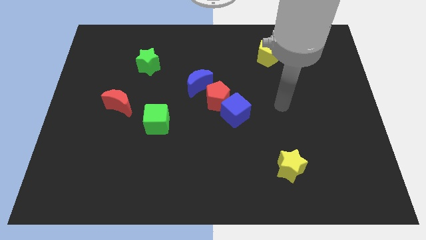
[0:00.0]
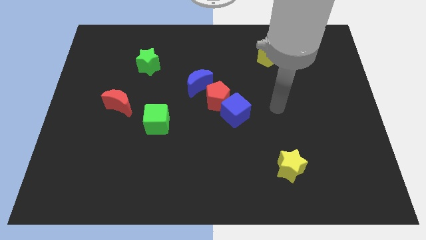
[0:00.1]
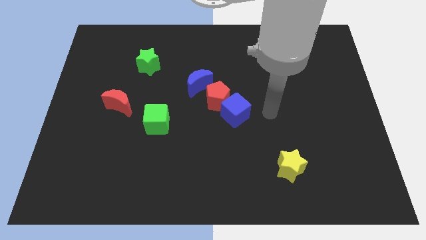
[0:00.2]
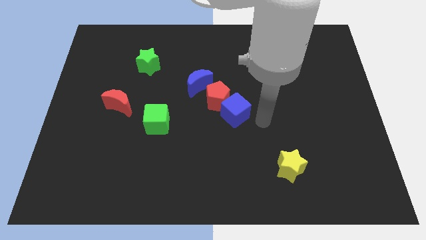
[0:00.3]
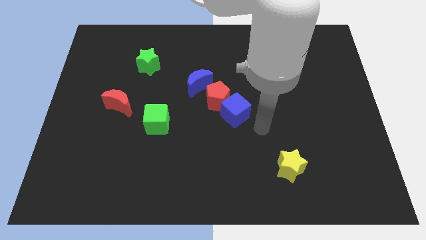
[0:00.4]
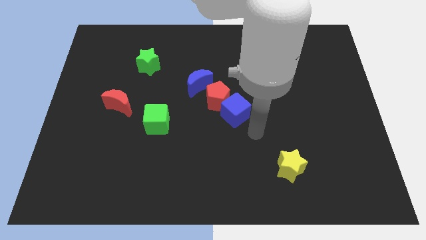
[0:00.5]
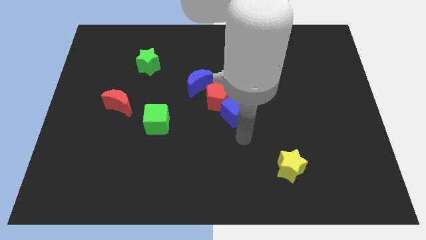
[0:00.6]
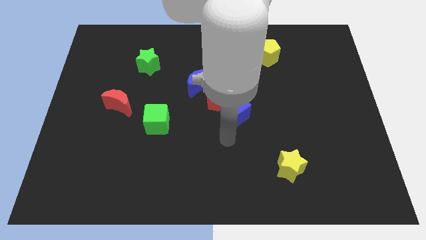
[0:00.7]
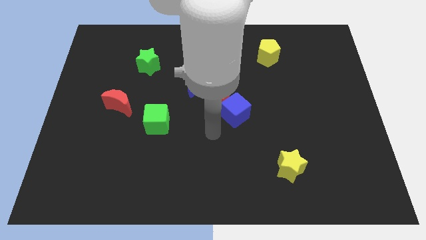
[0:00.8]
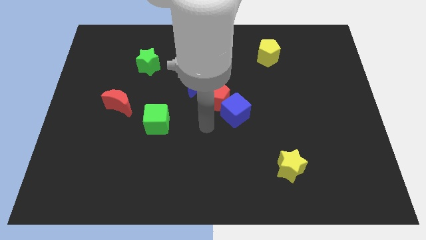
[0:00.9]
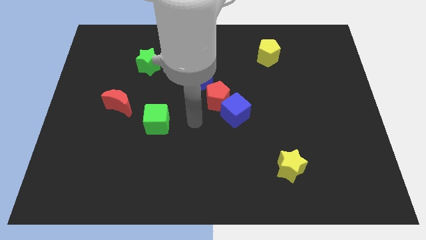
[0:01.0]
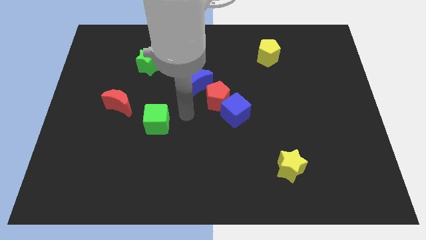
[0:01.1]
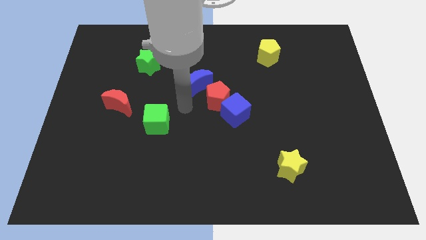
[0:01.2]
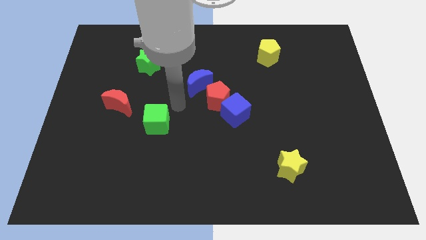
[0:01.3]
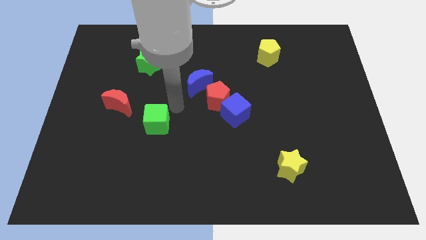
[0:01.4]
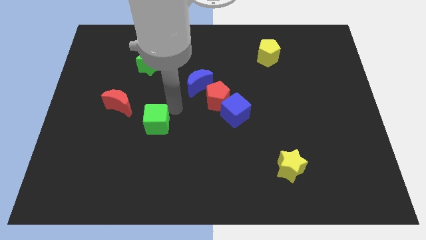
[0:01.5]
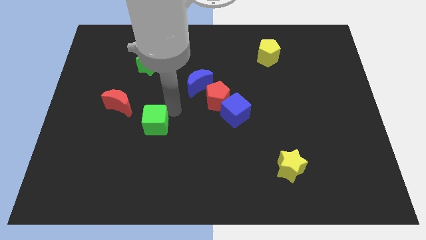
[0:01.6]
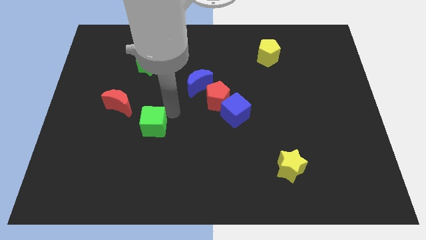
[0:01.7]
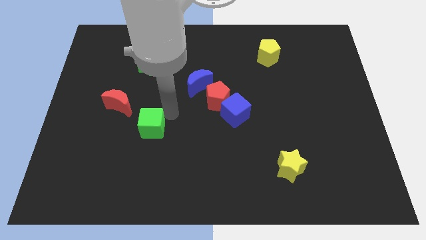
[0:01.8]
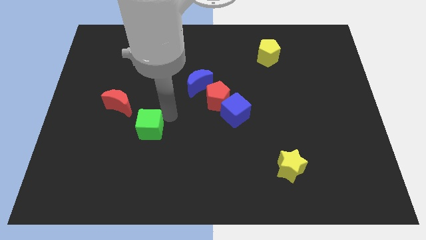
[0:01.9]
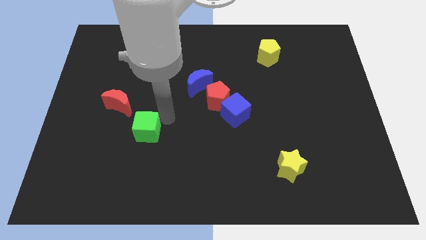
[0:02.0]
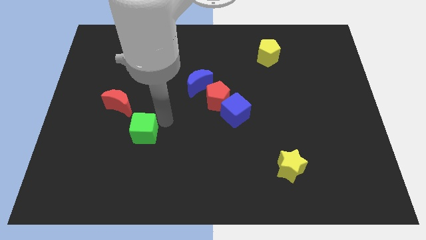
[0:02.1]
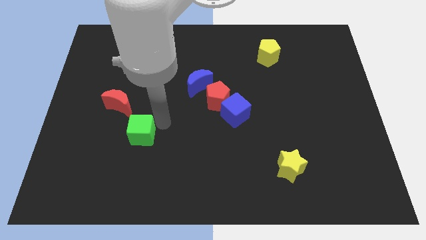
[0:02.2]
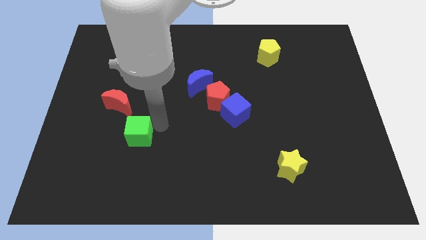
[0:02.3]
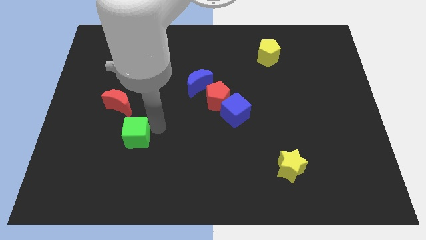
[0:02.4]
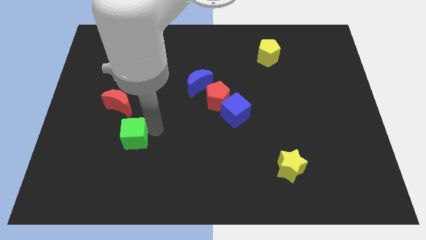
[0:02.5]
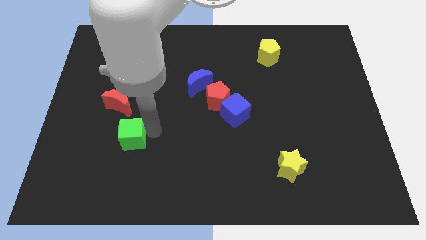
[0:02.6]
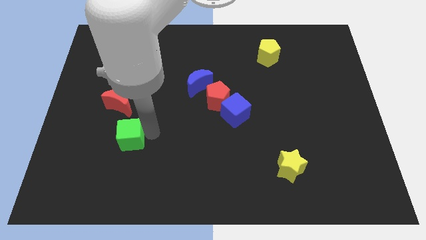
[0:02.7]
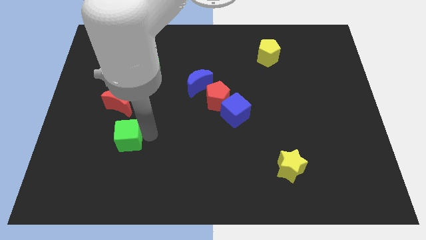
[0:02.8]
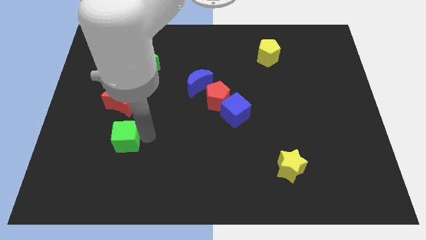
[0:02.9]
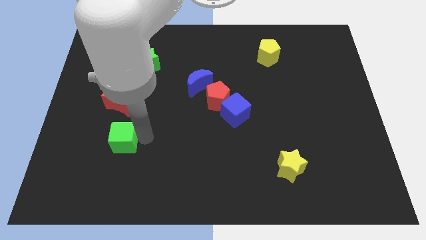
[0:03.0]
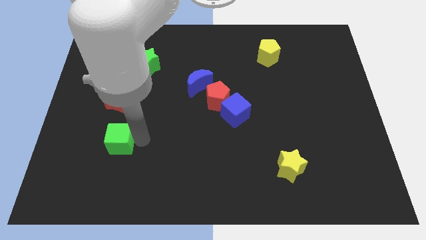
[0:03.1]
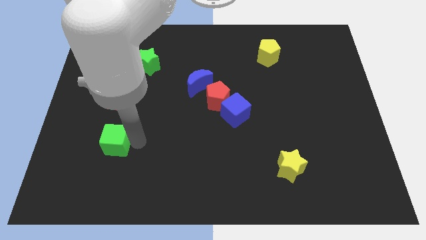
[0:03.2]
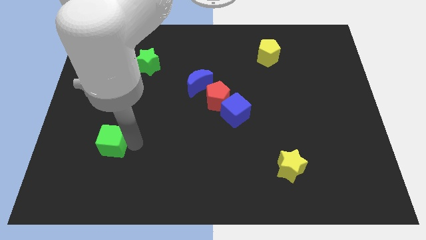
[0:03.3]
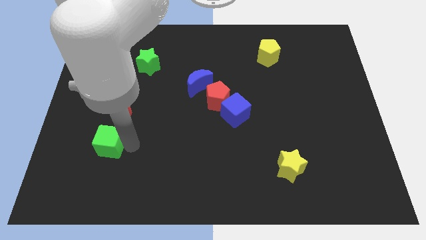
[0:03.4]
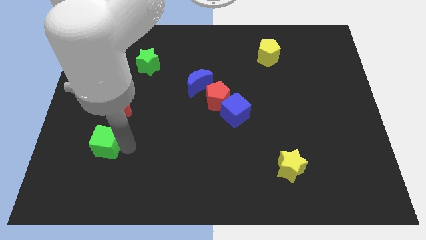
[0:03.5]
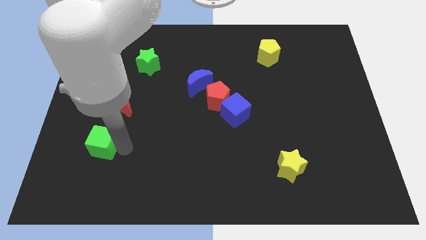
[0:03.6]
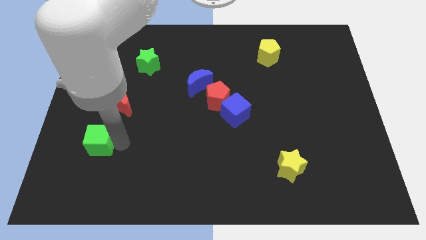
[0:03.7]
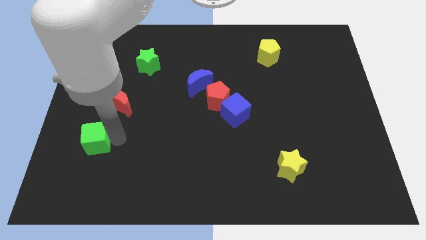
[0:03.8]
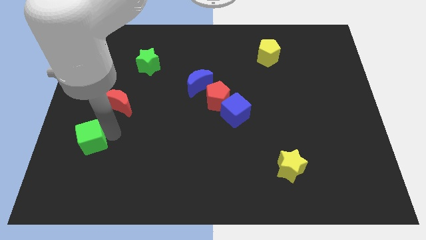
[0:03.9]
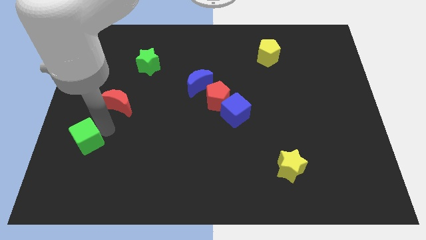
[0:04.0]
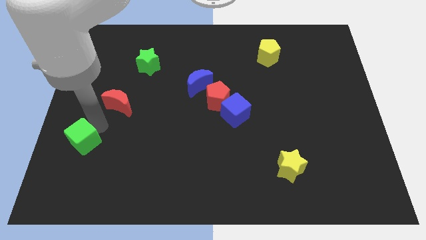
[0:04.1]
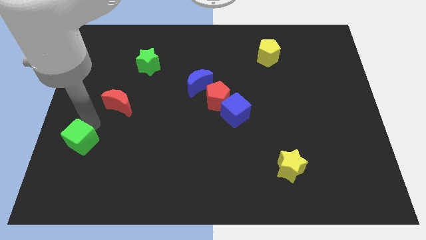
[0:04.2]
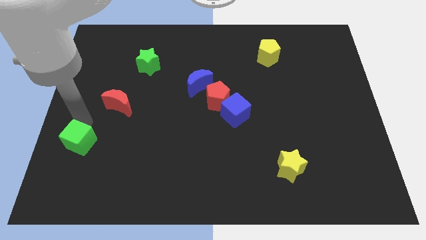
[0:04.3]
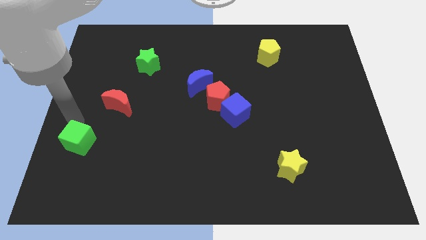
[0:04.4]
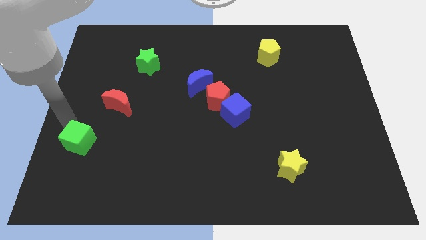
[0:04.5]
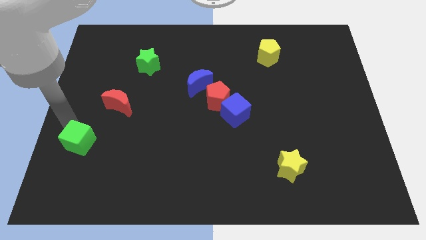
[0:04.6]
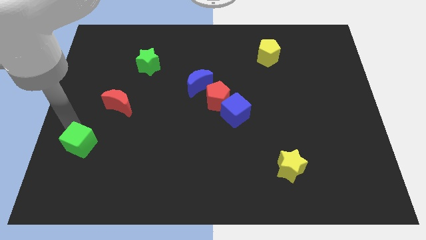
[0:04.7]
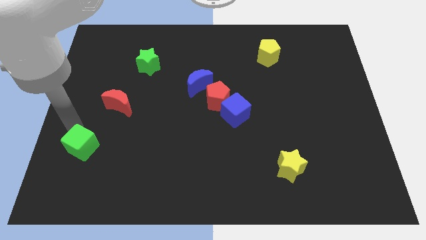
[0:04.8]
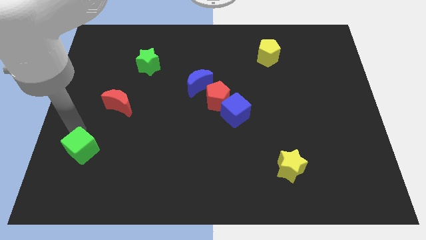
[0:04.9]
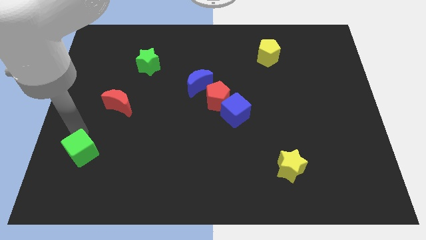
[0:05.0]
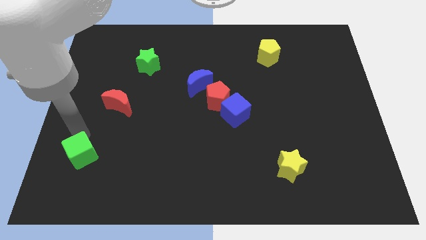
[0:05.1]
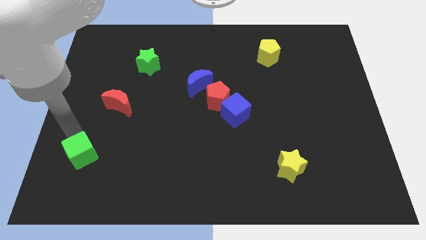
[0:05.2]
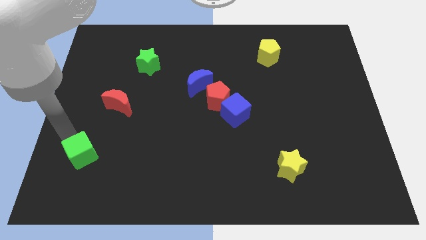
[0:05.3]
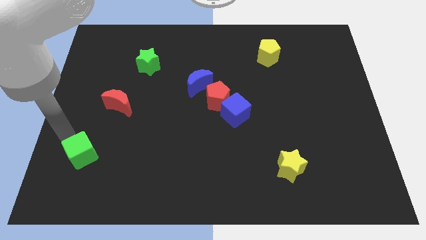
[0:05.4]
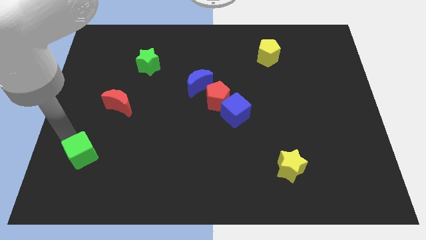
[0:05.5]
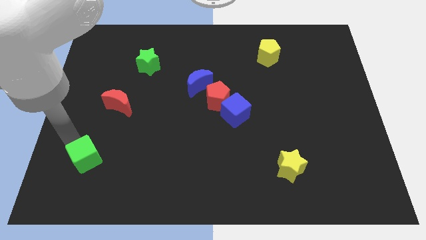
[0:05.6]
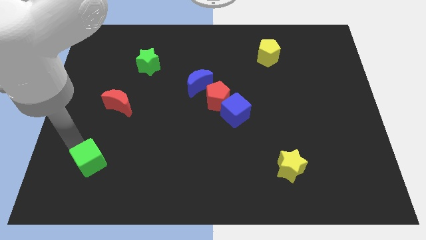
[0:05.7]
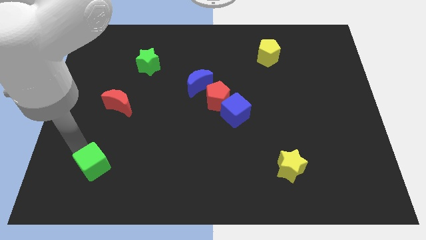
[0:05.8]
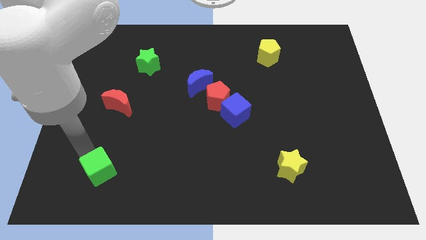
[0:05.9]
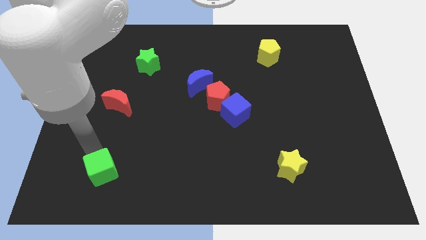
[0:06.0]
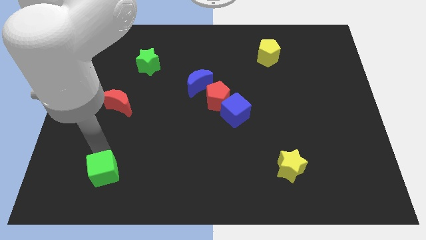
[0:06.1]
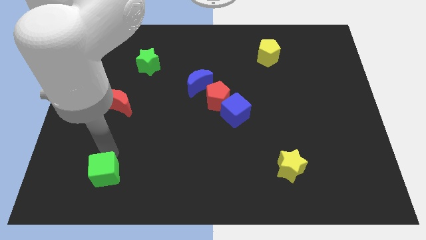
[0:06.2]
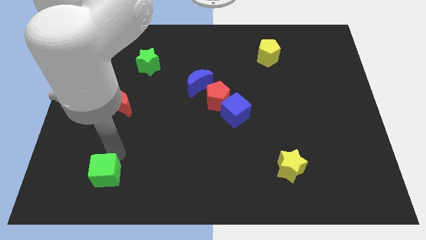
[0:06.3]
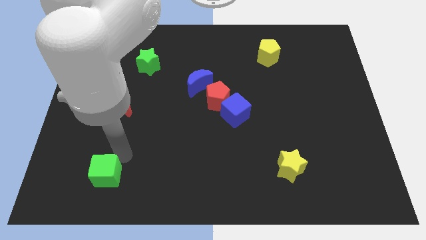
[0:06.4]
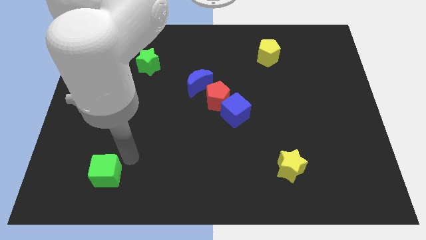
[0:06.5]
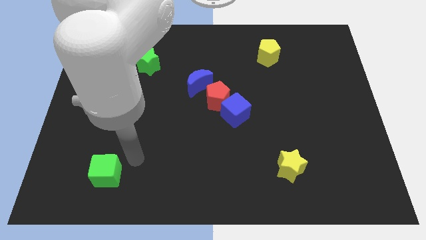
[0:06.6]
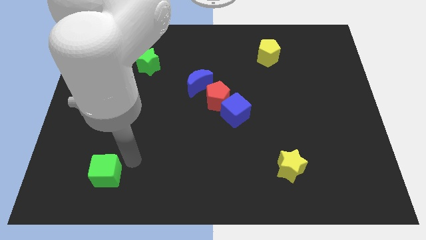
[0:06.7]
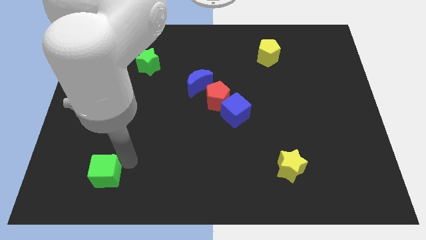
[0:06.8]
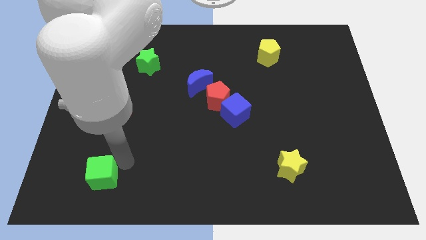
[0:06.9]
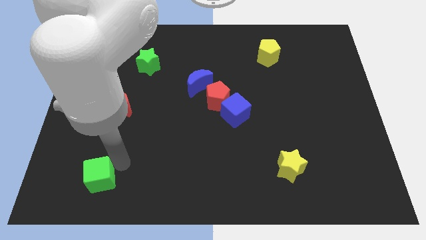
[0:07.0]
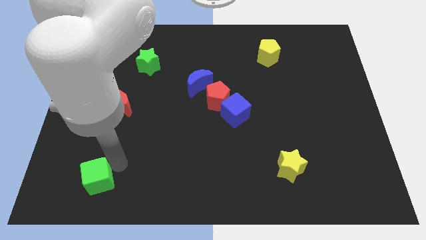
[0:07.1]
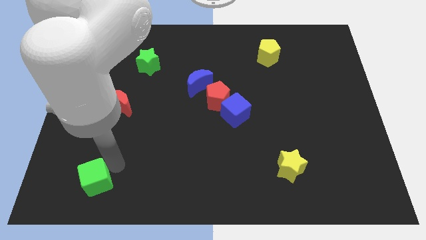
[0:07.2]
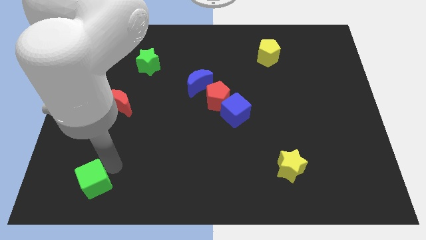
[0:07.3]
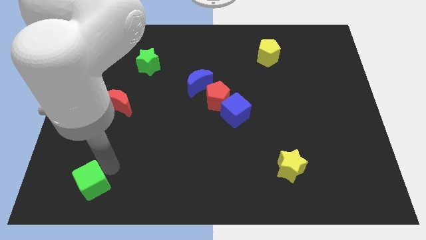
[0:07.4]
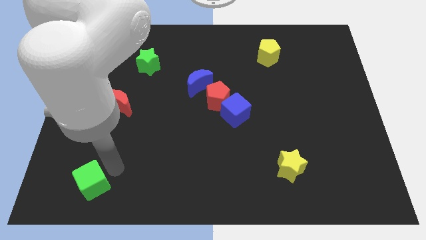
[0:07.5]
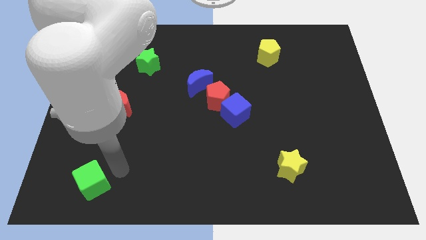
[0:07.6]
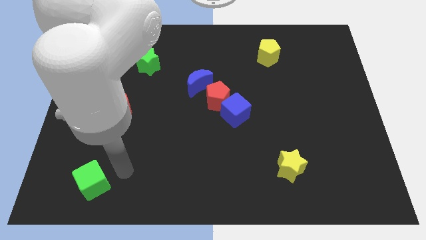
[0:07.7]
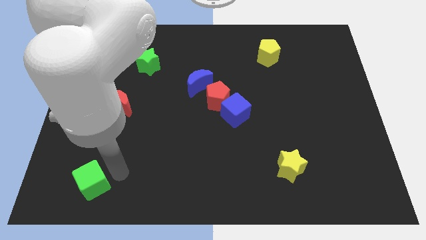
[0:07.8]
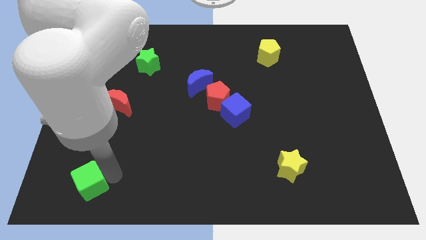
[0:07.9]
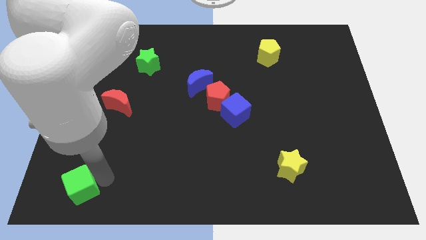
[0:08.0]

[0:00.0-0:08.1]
push the green cube to the bottom left corner
